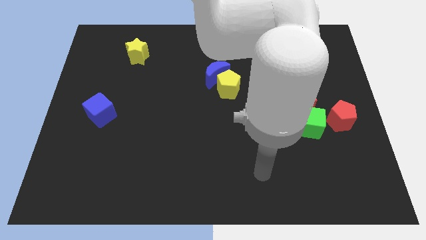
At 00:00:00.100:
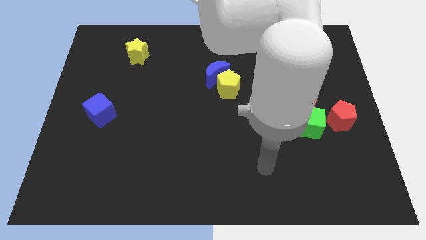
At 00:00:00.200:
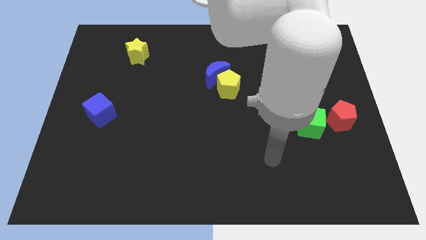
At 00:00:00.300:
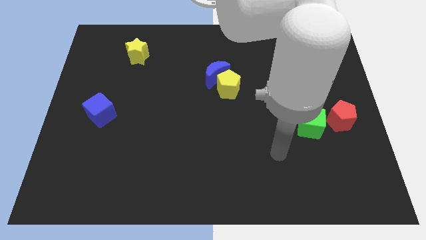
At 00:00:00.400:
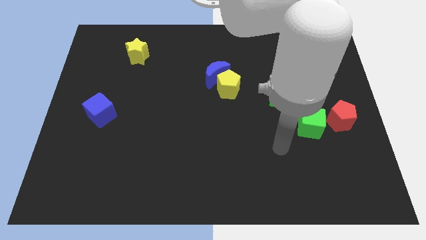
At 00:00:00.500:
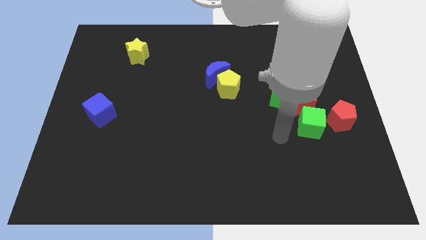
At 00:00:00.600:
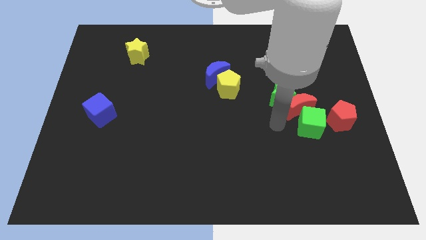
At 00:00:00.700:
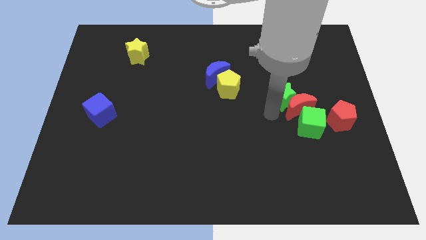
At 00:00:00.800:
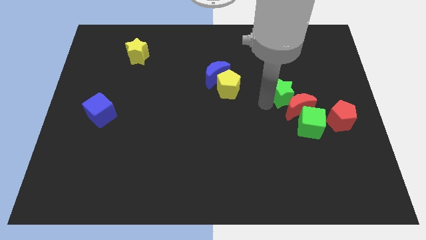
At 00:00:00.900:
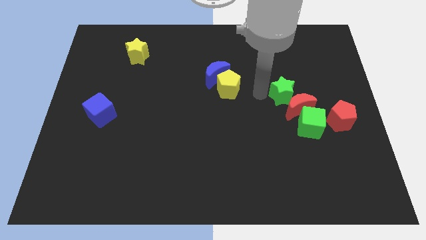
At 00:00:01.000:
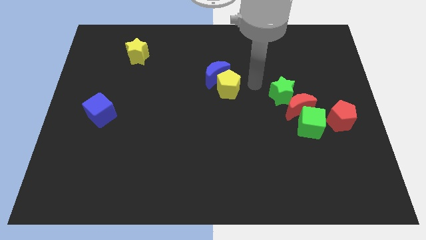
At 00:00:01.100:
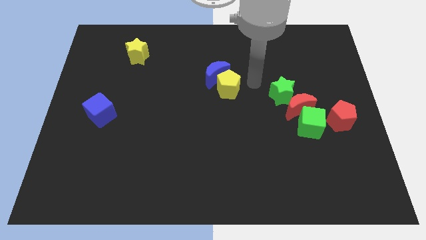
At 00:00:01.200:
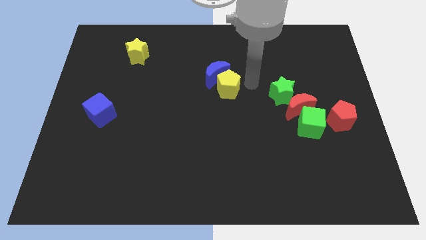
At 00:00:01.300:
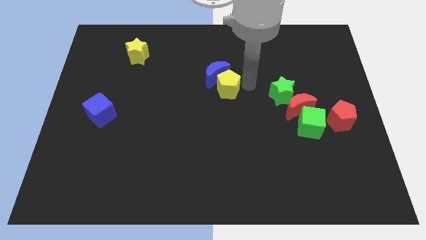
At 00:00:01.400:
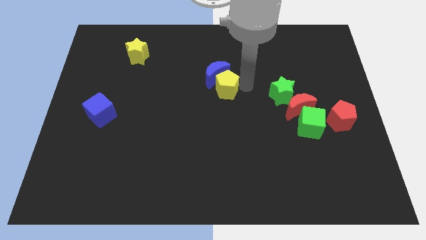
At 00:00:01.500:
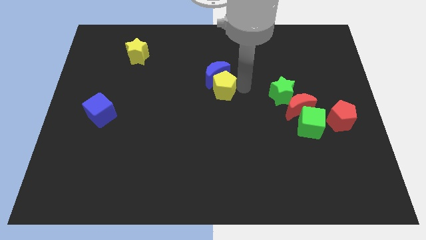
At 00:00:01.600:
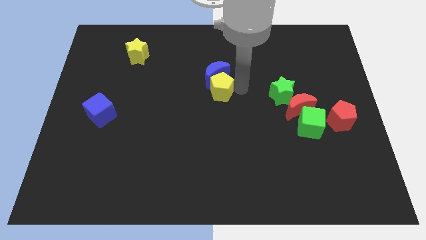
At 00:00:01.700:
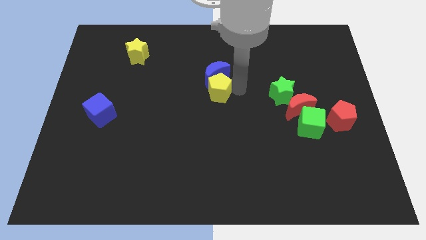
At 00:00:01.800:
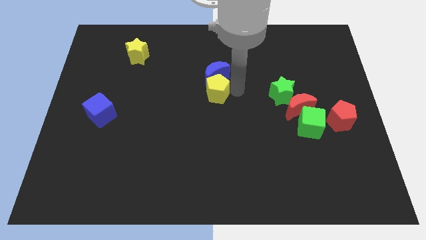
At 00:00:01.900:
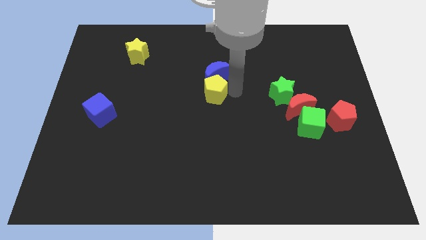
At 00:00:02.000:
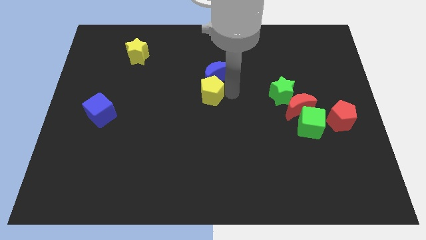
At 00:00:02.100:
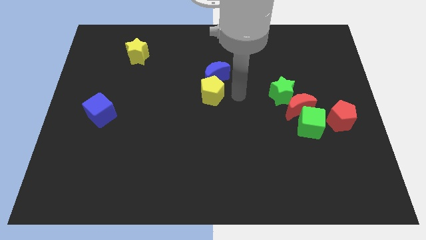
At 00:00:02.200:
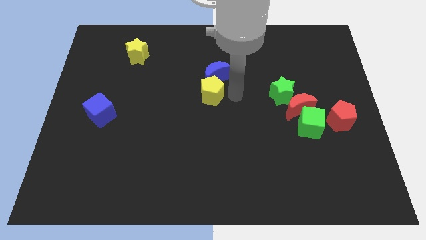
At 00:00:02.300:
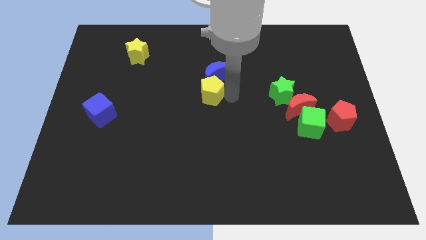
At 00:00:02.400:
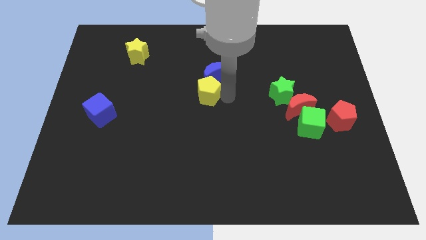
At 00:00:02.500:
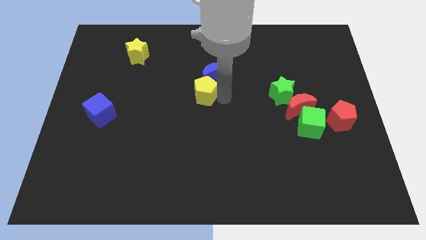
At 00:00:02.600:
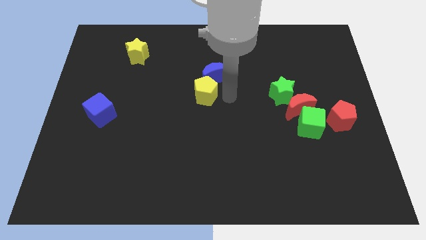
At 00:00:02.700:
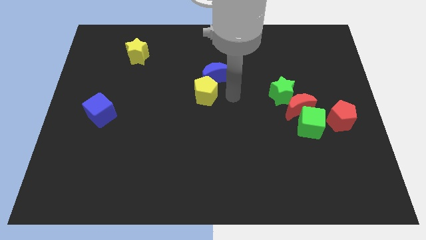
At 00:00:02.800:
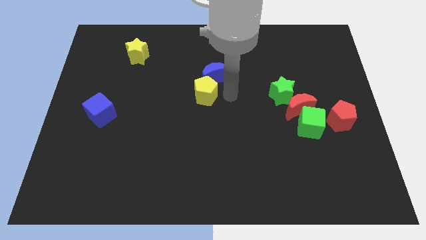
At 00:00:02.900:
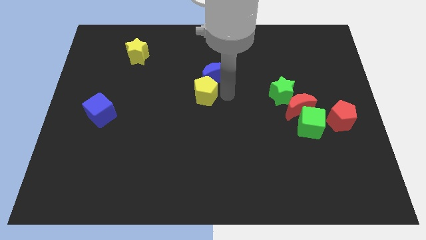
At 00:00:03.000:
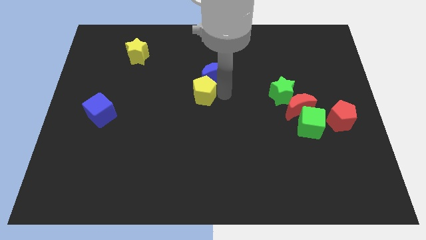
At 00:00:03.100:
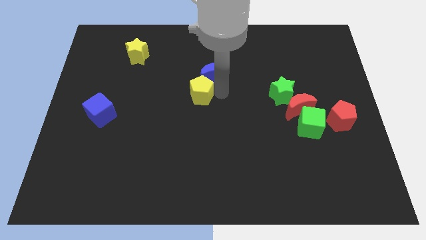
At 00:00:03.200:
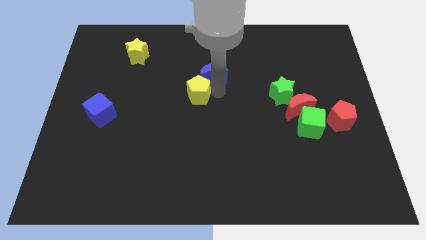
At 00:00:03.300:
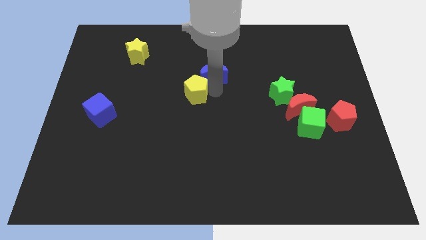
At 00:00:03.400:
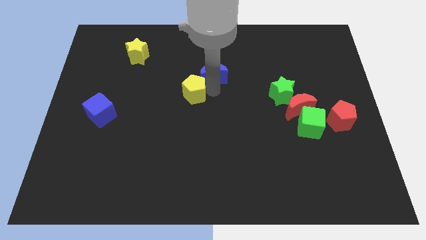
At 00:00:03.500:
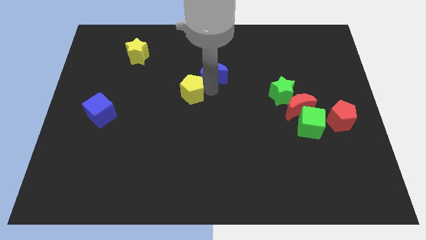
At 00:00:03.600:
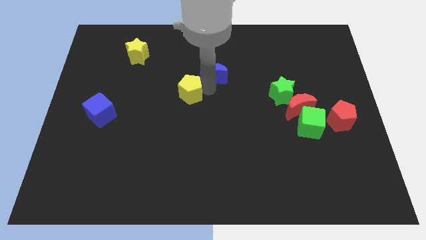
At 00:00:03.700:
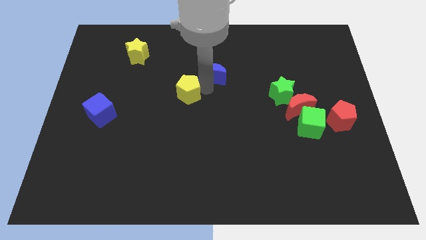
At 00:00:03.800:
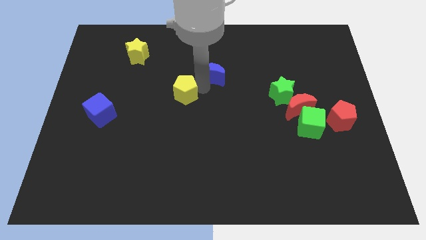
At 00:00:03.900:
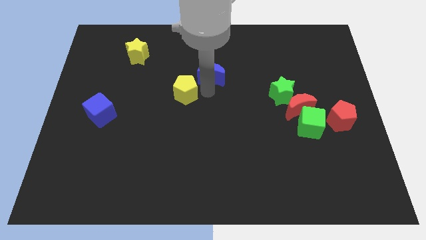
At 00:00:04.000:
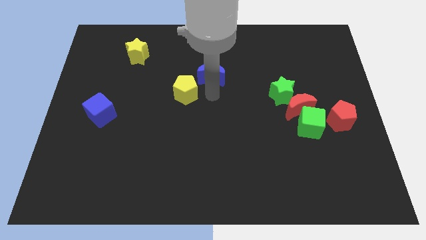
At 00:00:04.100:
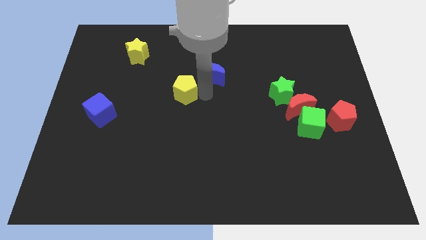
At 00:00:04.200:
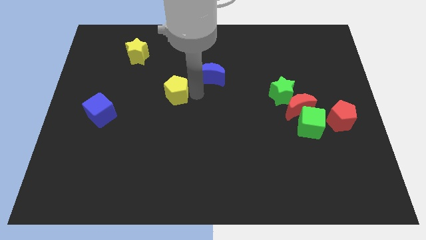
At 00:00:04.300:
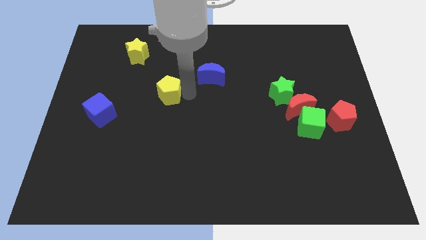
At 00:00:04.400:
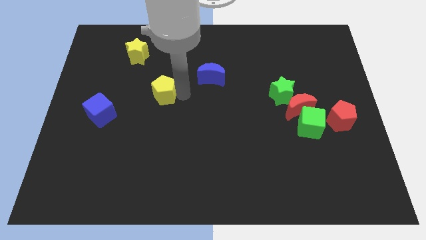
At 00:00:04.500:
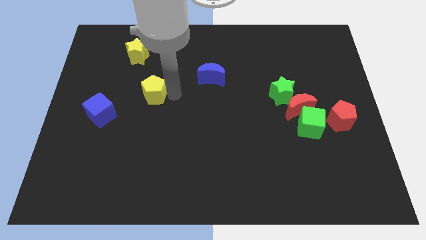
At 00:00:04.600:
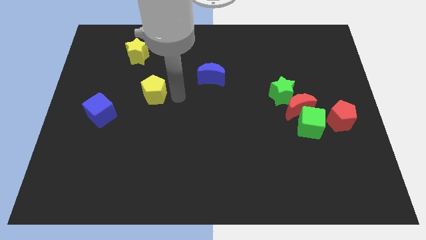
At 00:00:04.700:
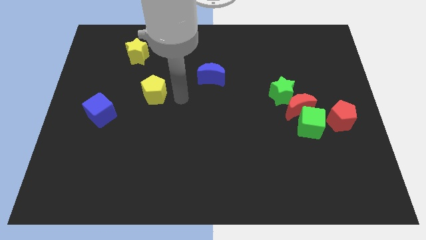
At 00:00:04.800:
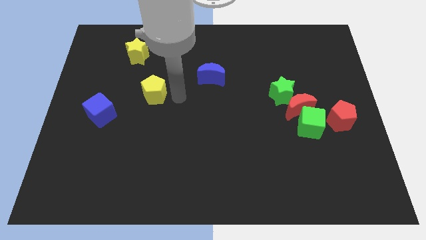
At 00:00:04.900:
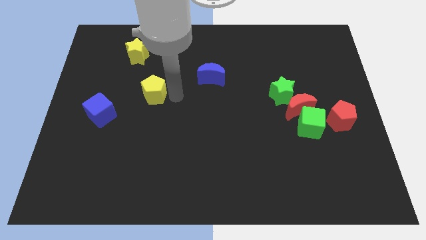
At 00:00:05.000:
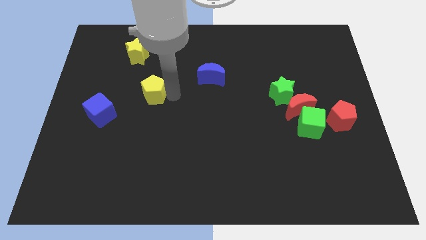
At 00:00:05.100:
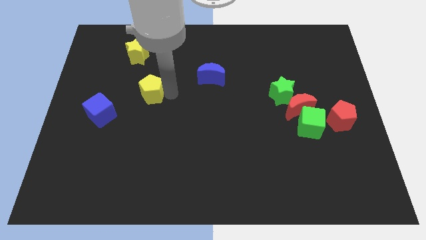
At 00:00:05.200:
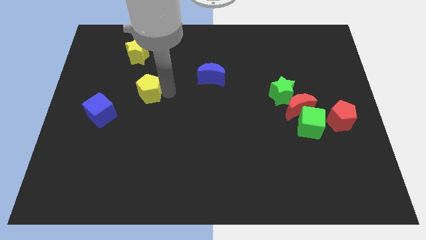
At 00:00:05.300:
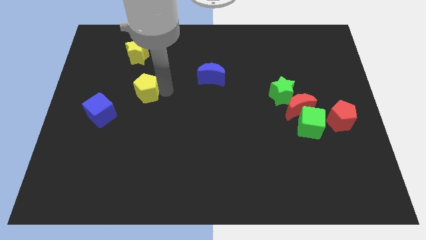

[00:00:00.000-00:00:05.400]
slide the yellow pentagon to the left

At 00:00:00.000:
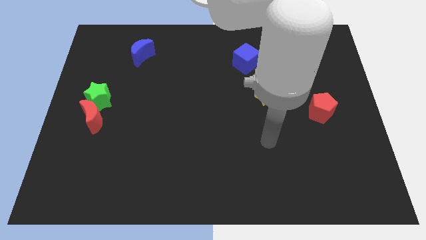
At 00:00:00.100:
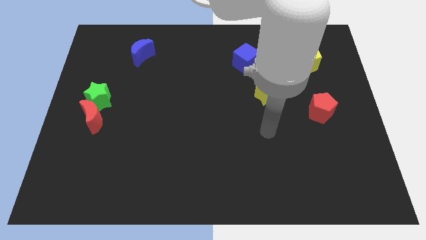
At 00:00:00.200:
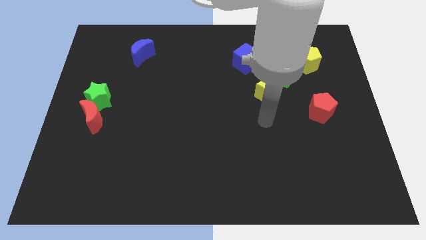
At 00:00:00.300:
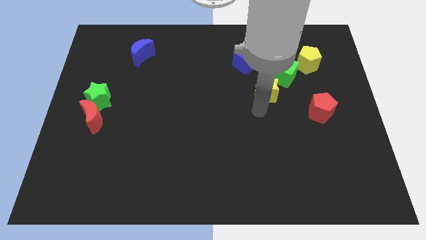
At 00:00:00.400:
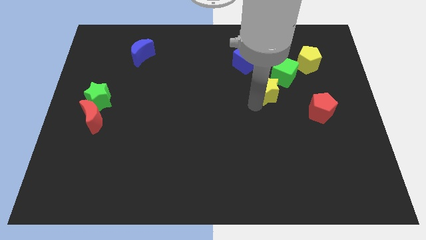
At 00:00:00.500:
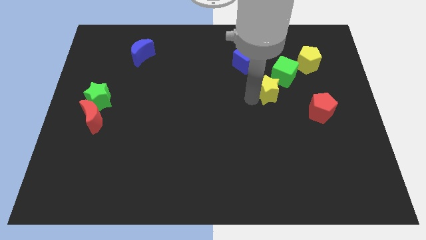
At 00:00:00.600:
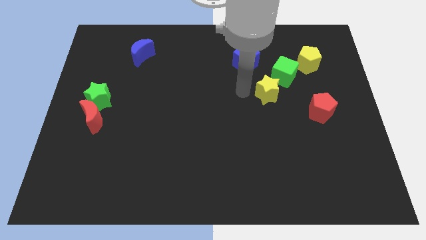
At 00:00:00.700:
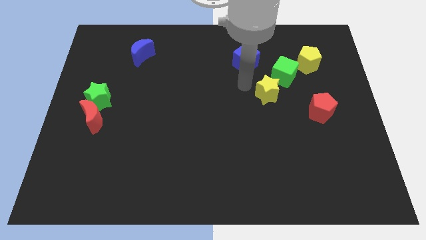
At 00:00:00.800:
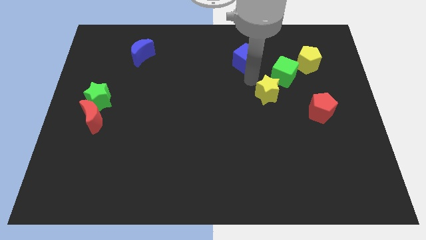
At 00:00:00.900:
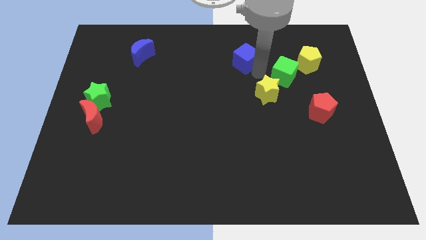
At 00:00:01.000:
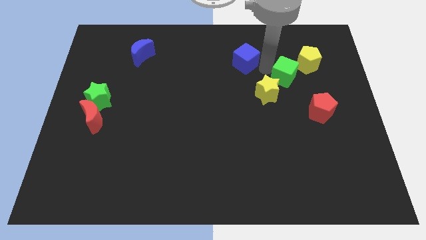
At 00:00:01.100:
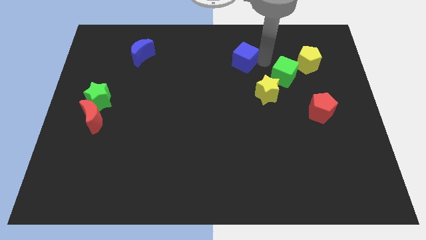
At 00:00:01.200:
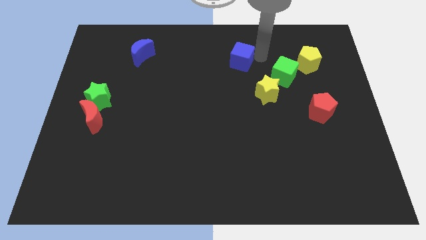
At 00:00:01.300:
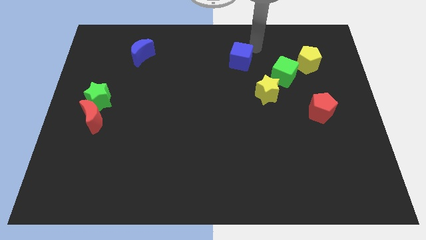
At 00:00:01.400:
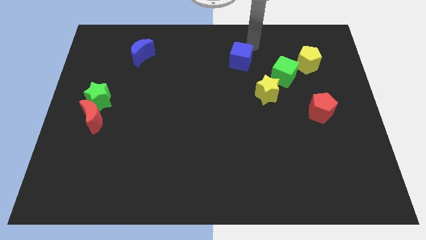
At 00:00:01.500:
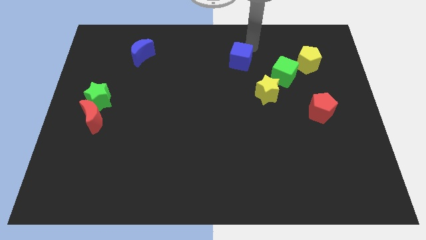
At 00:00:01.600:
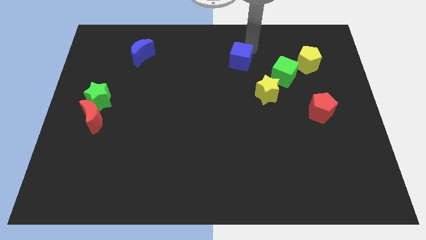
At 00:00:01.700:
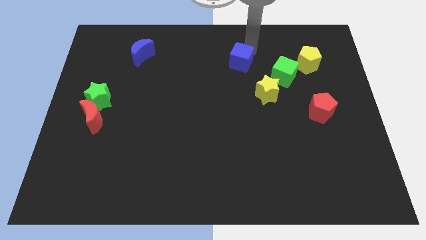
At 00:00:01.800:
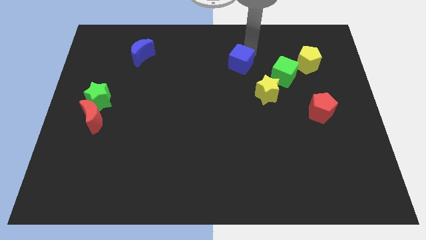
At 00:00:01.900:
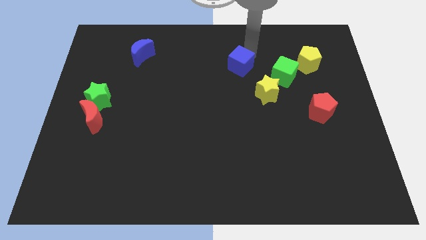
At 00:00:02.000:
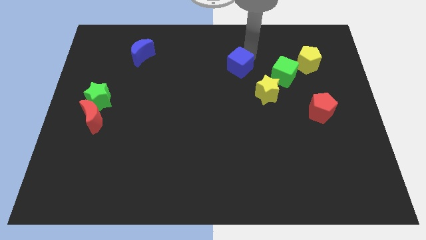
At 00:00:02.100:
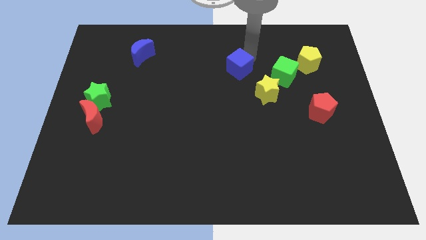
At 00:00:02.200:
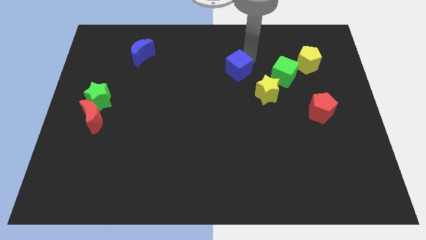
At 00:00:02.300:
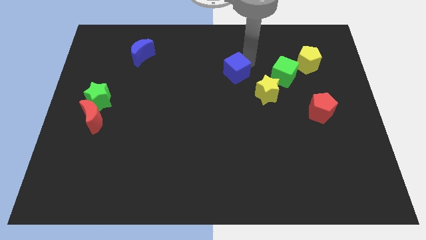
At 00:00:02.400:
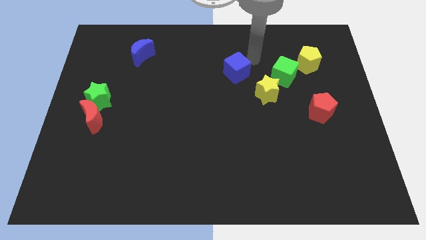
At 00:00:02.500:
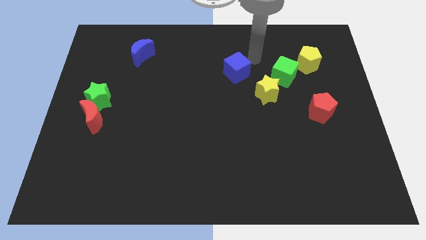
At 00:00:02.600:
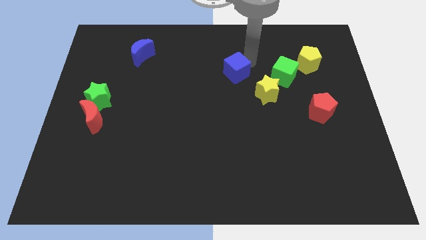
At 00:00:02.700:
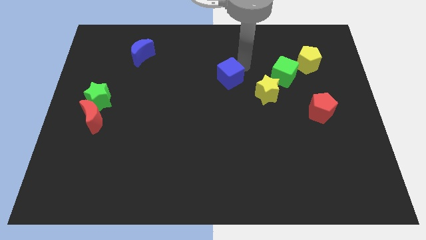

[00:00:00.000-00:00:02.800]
push the blue cube slightly downwards and then left
